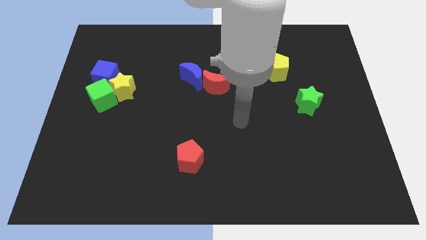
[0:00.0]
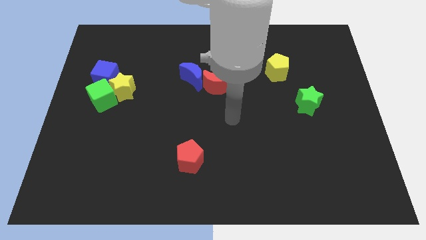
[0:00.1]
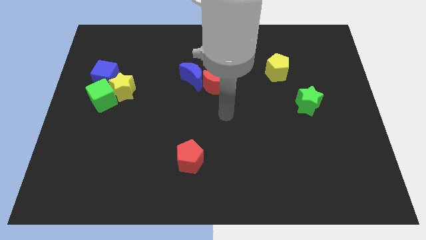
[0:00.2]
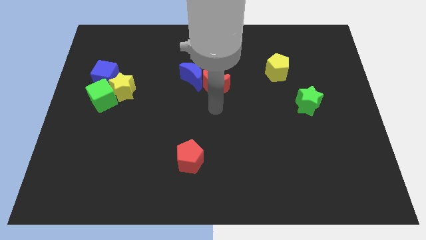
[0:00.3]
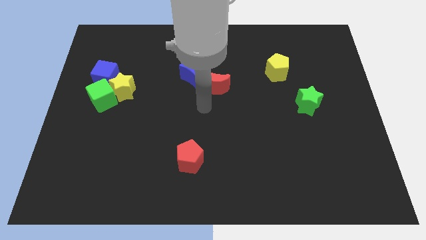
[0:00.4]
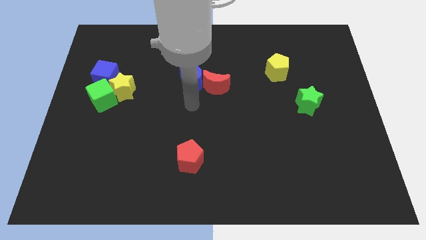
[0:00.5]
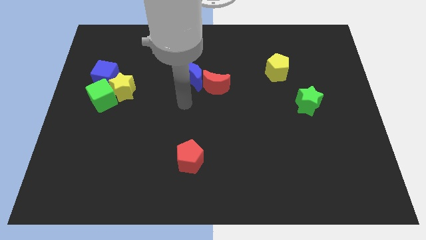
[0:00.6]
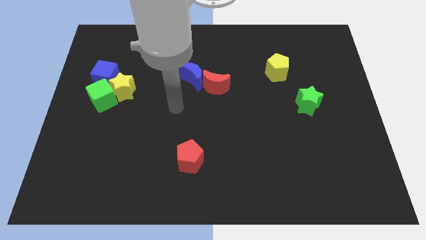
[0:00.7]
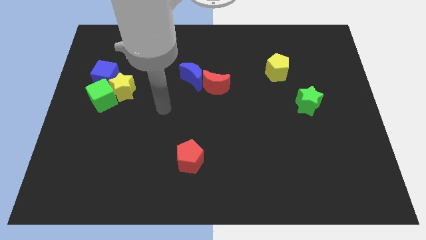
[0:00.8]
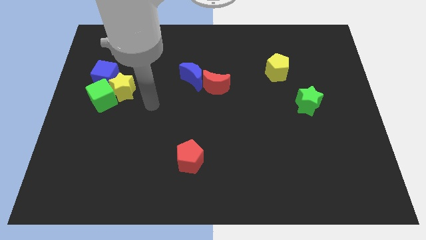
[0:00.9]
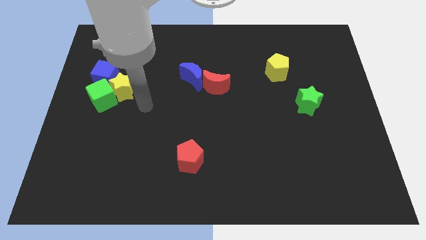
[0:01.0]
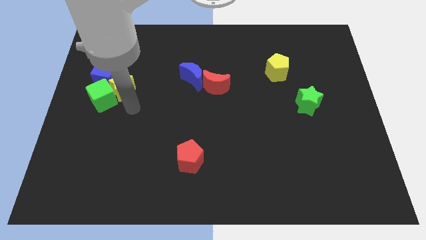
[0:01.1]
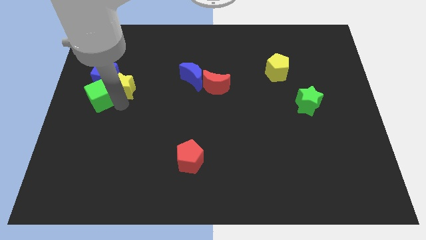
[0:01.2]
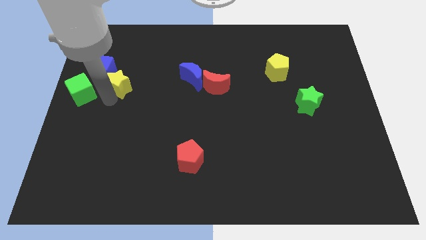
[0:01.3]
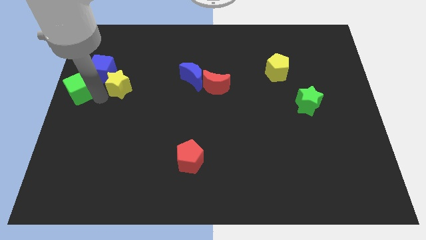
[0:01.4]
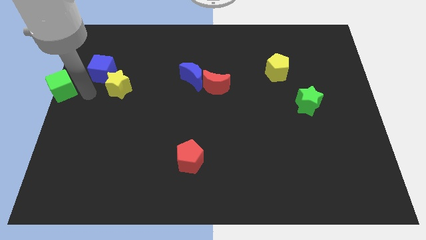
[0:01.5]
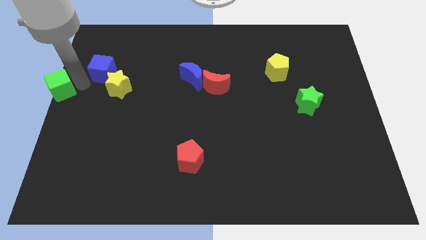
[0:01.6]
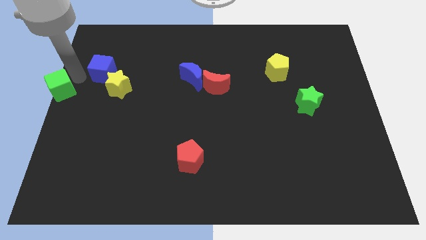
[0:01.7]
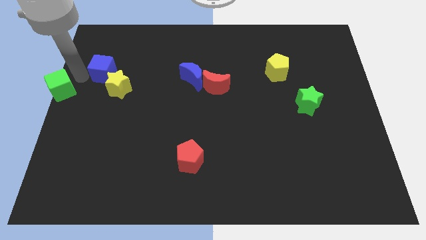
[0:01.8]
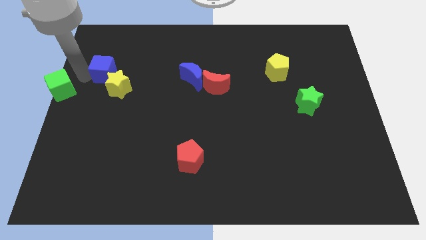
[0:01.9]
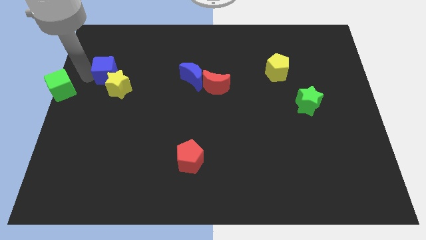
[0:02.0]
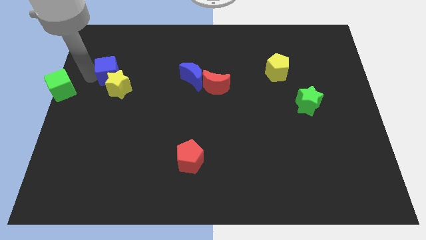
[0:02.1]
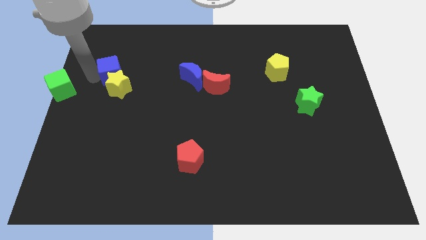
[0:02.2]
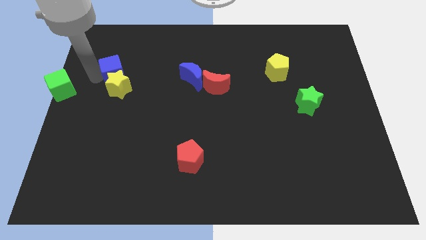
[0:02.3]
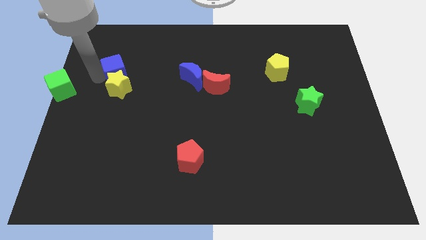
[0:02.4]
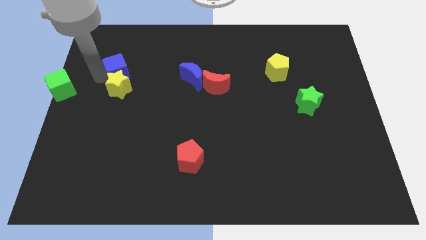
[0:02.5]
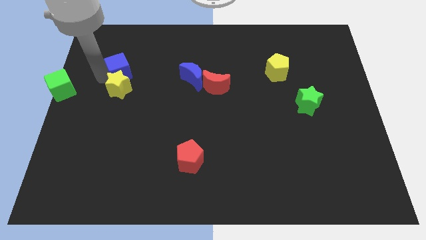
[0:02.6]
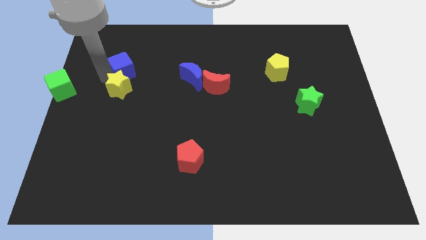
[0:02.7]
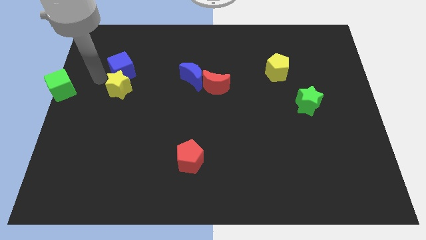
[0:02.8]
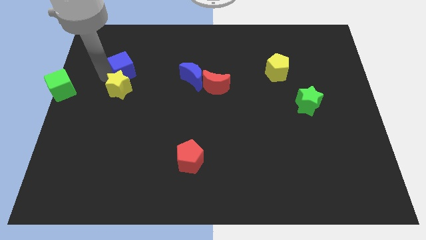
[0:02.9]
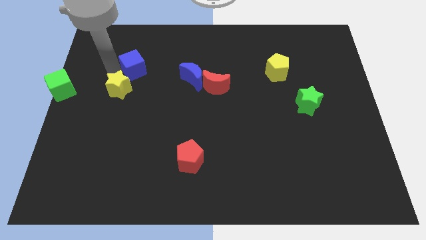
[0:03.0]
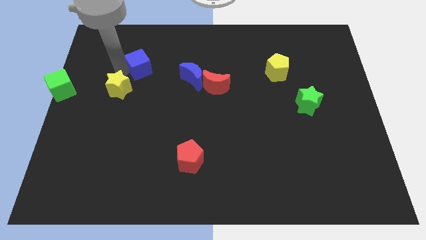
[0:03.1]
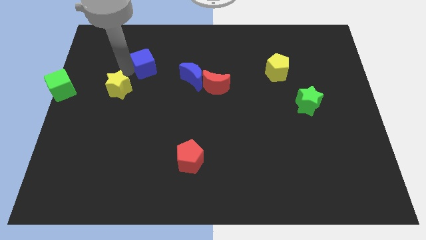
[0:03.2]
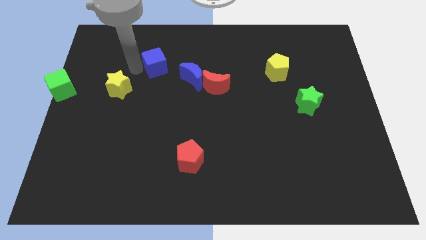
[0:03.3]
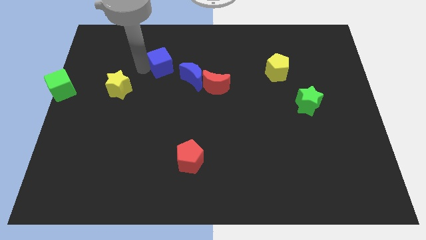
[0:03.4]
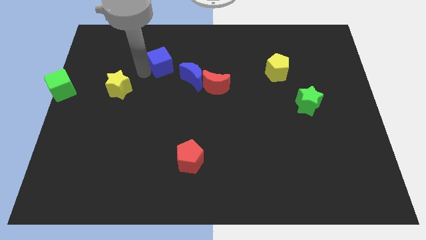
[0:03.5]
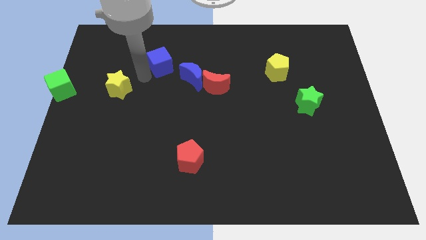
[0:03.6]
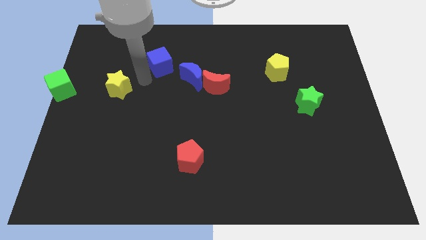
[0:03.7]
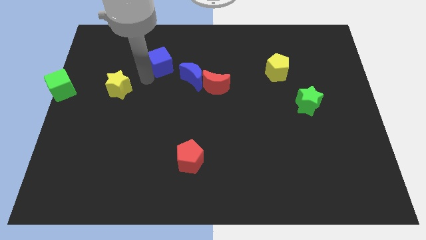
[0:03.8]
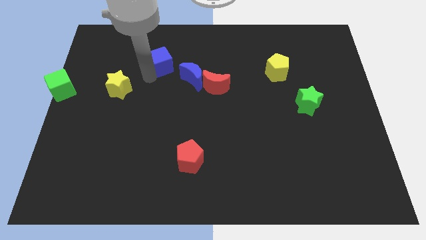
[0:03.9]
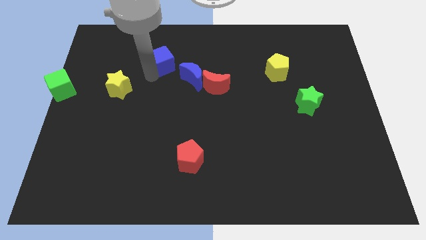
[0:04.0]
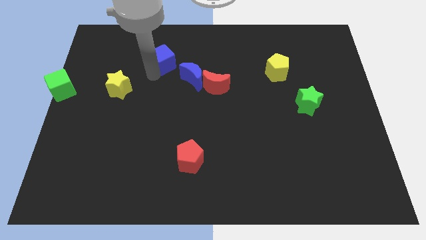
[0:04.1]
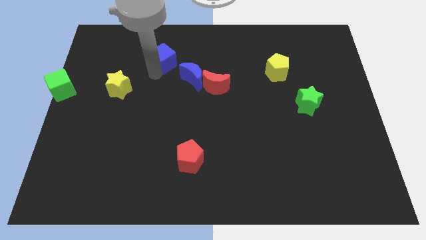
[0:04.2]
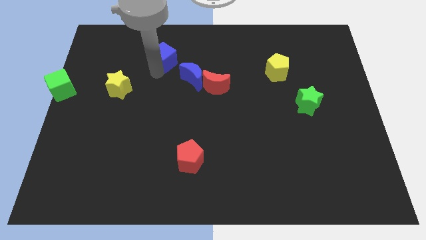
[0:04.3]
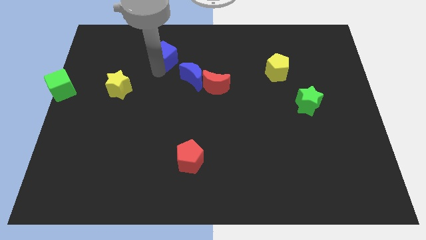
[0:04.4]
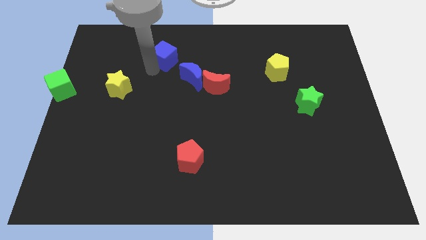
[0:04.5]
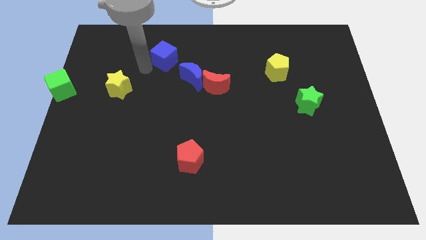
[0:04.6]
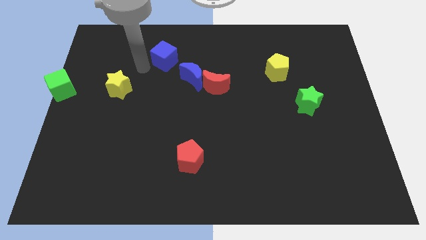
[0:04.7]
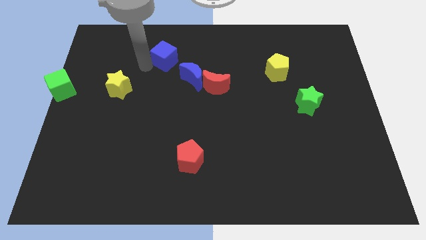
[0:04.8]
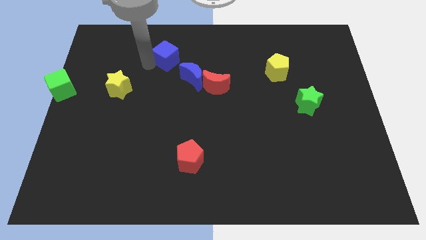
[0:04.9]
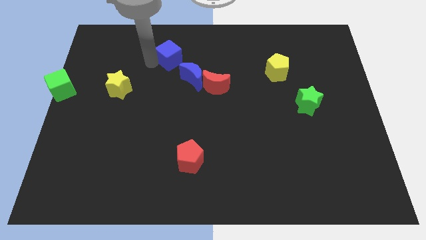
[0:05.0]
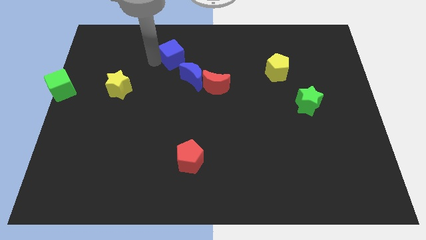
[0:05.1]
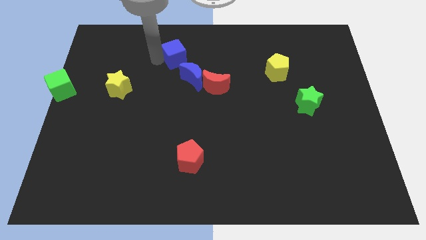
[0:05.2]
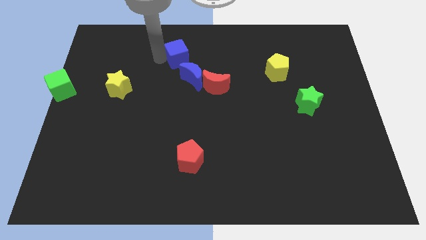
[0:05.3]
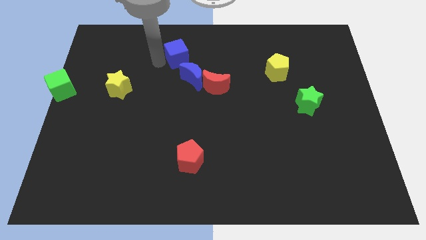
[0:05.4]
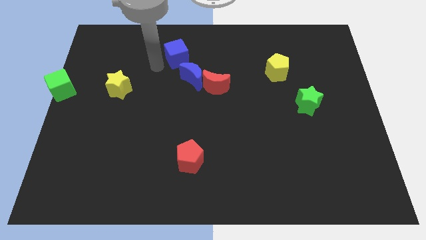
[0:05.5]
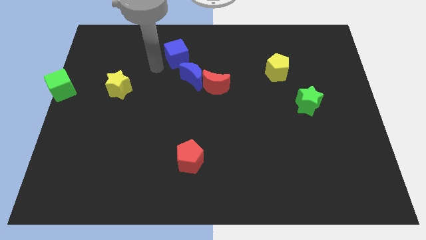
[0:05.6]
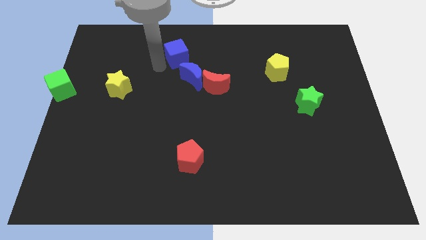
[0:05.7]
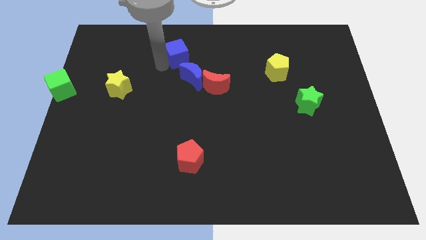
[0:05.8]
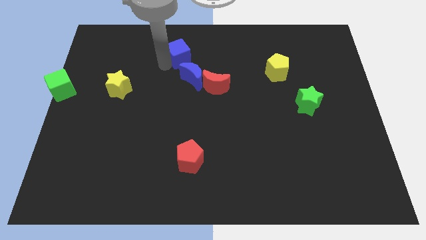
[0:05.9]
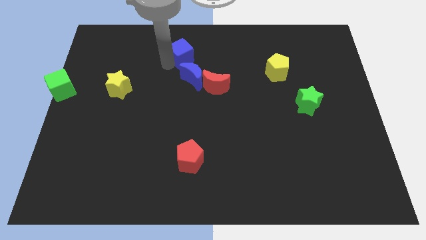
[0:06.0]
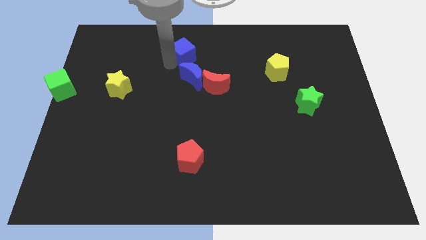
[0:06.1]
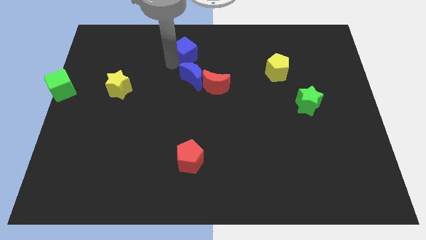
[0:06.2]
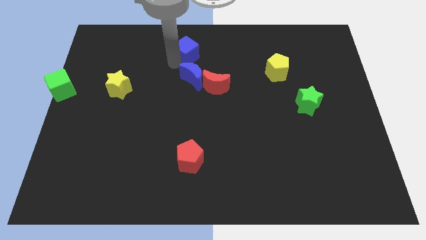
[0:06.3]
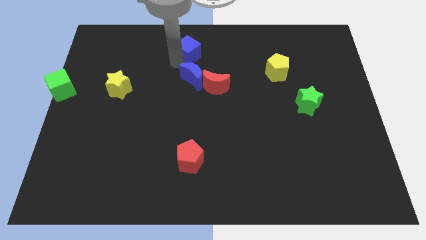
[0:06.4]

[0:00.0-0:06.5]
move the blue cube to the towards your base
